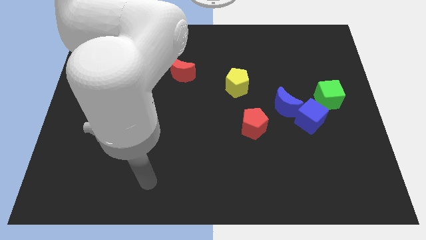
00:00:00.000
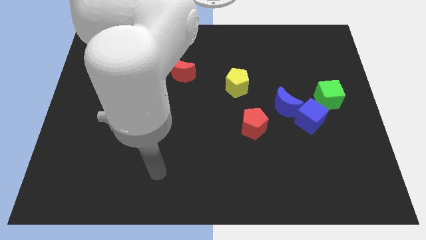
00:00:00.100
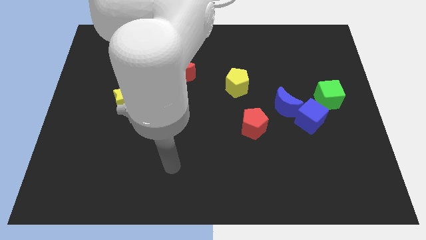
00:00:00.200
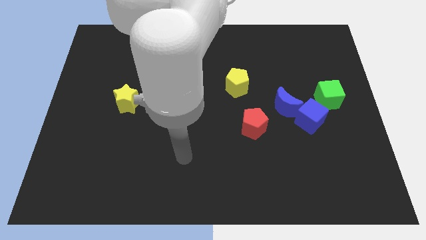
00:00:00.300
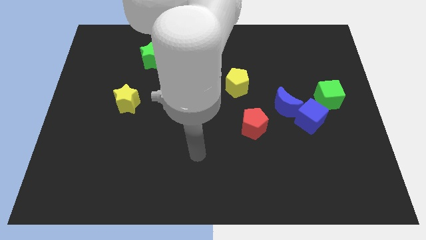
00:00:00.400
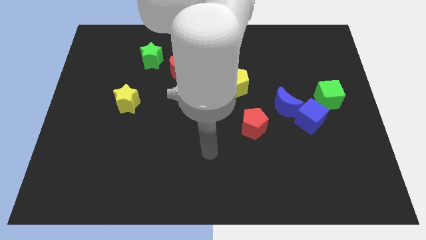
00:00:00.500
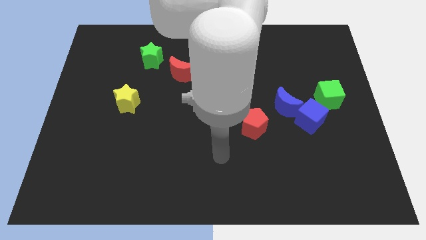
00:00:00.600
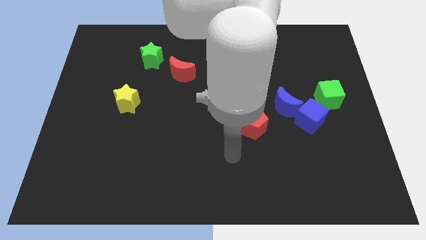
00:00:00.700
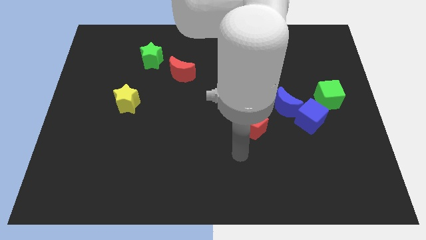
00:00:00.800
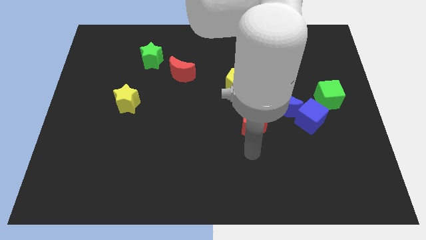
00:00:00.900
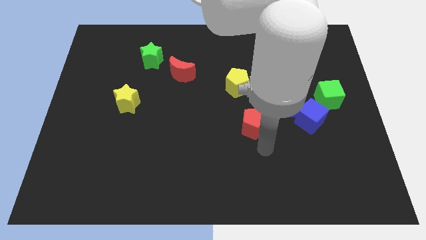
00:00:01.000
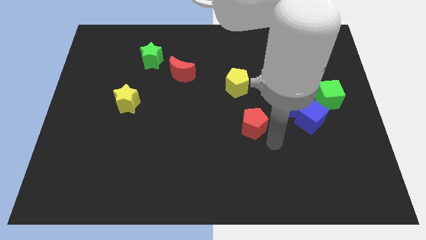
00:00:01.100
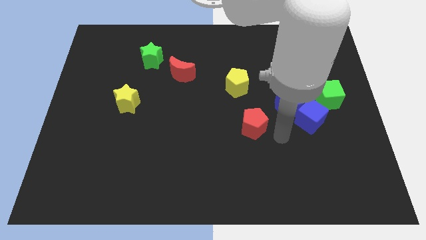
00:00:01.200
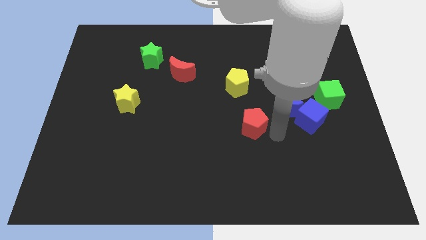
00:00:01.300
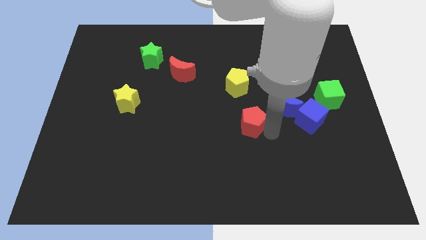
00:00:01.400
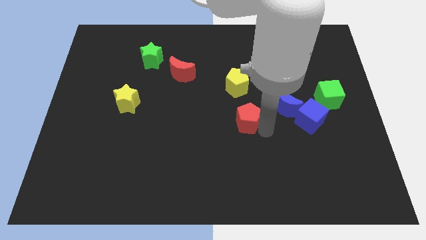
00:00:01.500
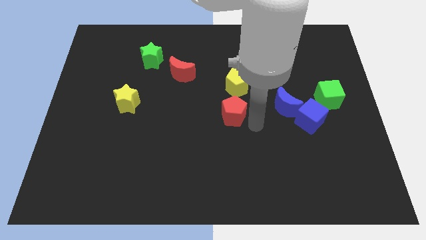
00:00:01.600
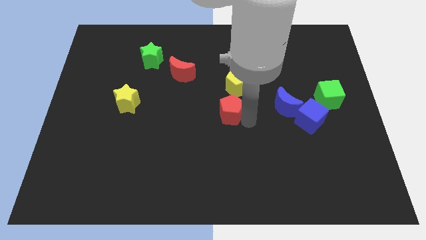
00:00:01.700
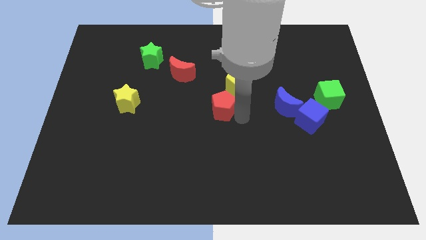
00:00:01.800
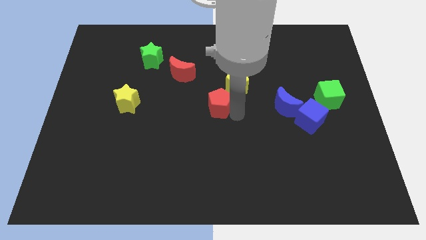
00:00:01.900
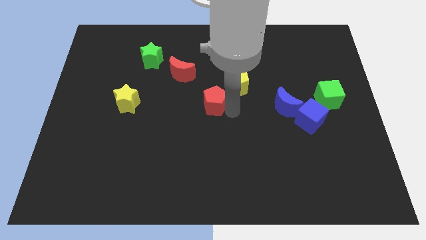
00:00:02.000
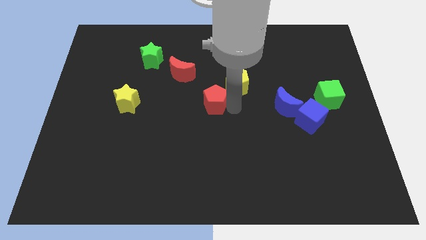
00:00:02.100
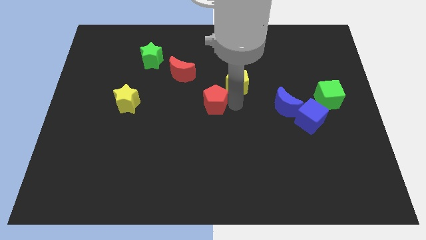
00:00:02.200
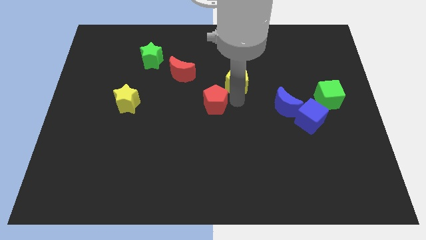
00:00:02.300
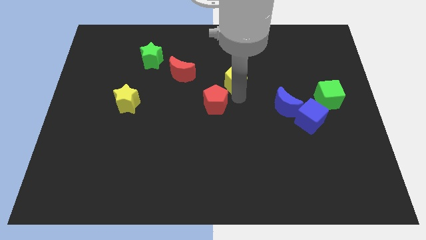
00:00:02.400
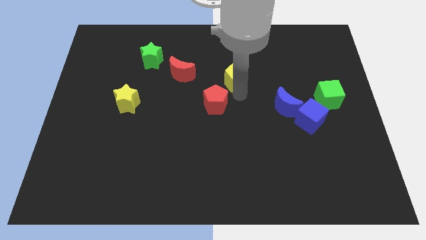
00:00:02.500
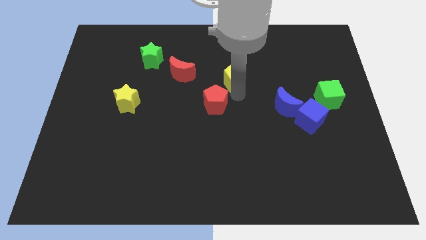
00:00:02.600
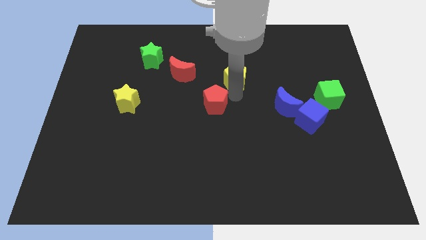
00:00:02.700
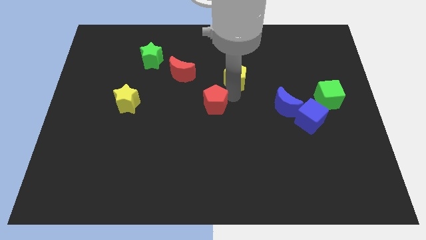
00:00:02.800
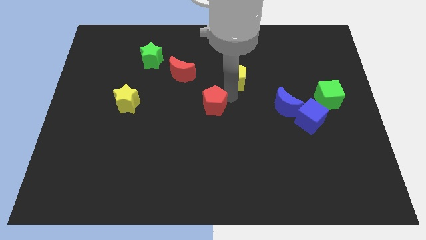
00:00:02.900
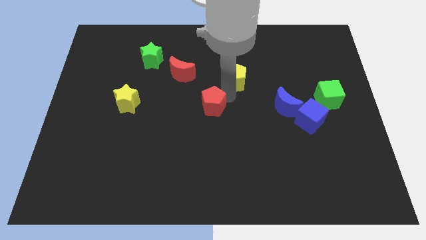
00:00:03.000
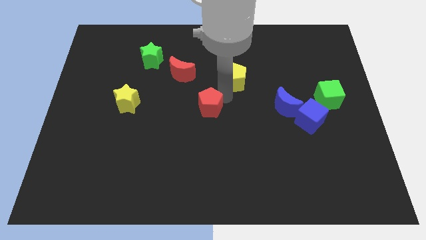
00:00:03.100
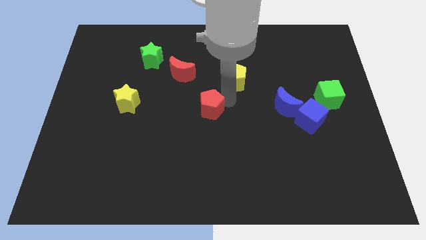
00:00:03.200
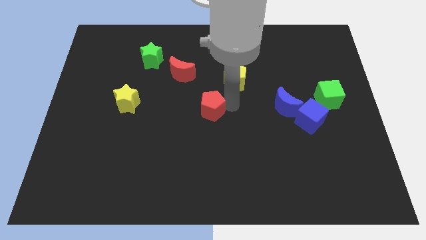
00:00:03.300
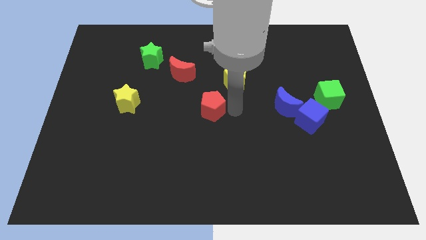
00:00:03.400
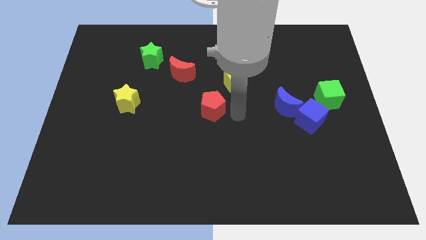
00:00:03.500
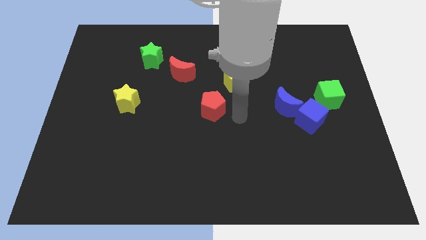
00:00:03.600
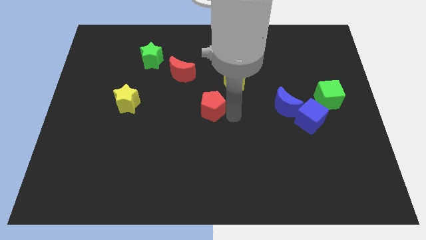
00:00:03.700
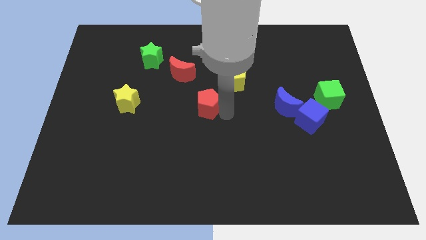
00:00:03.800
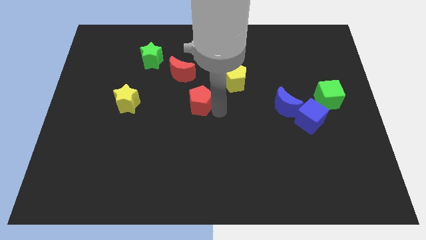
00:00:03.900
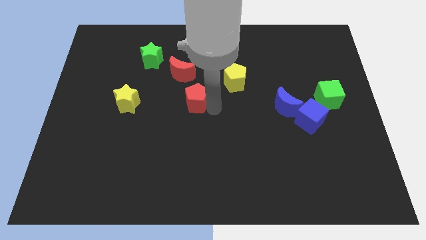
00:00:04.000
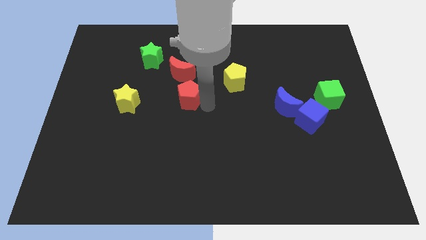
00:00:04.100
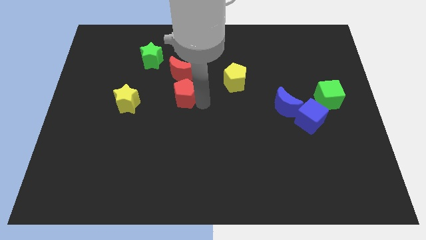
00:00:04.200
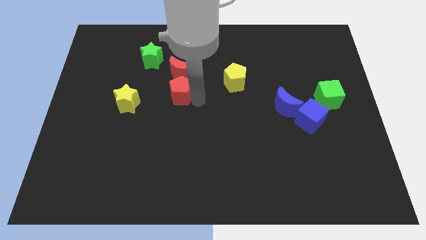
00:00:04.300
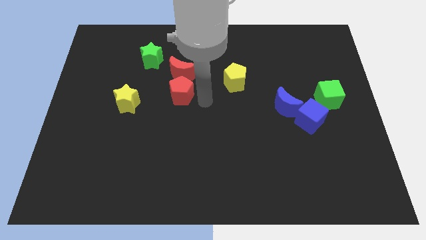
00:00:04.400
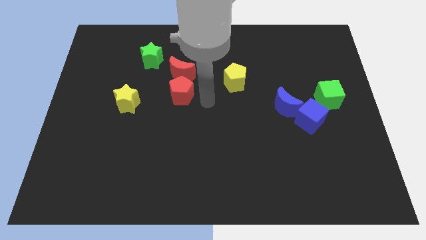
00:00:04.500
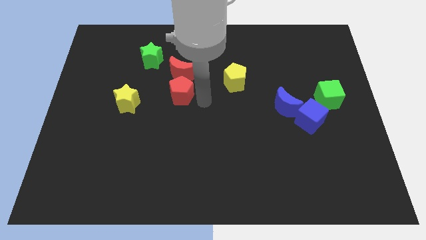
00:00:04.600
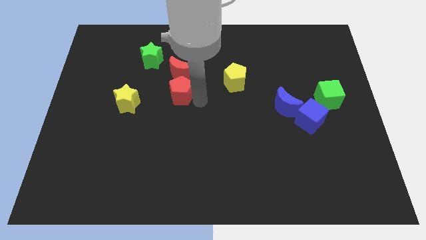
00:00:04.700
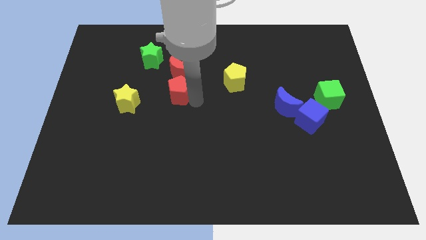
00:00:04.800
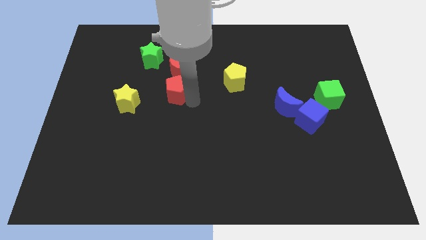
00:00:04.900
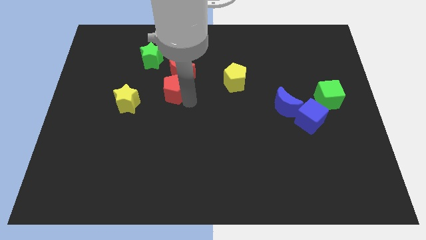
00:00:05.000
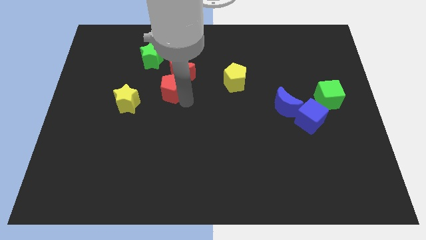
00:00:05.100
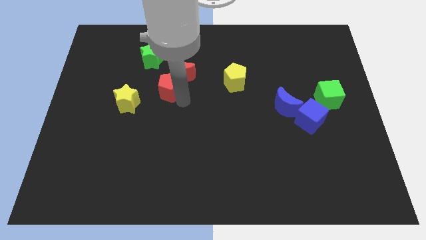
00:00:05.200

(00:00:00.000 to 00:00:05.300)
put the red pentagon to the top right side of the yellow star

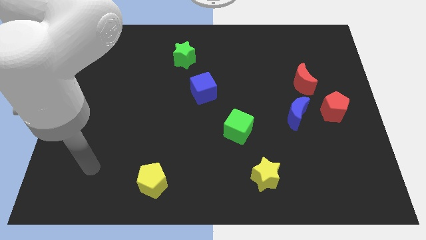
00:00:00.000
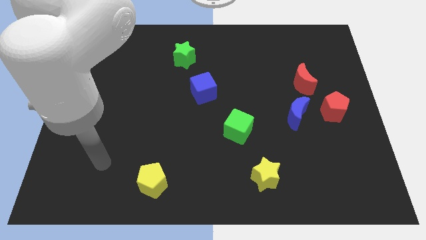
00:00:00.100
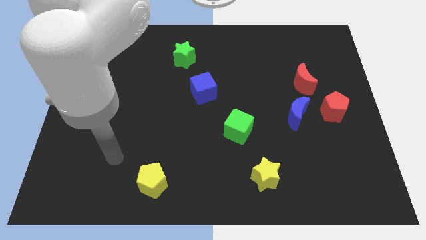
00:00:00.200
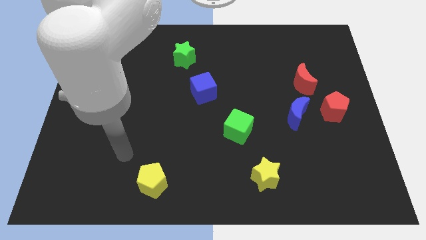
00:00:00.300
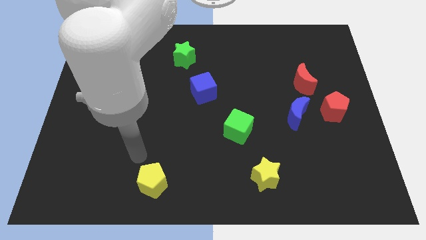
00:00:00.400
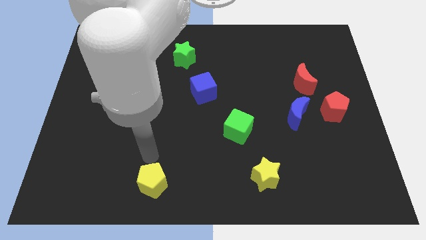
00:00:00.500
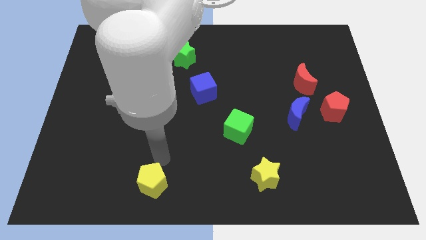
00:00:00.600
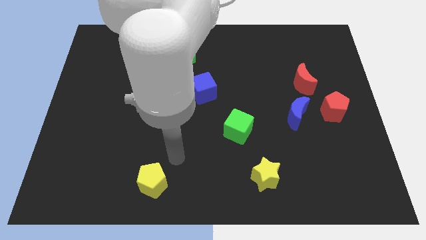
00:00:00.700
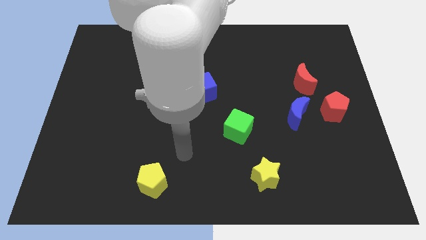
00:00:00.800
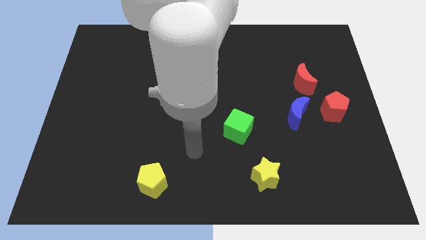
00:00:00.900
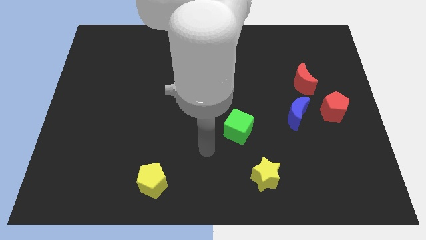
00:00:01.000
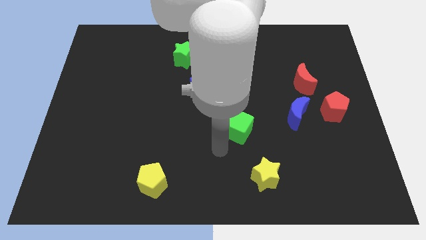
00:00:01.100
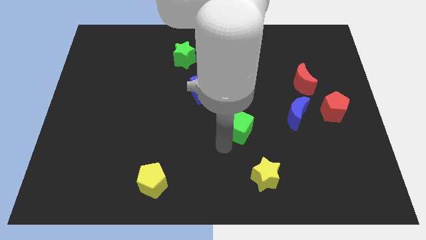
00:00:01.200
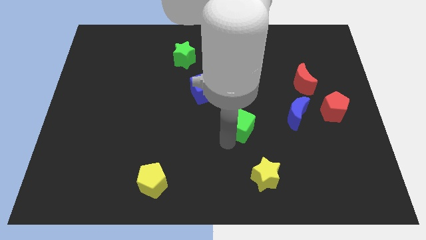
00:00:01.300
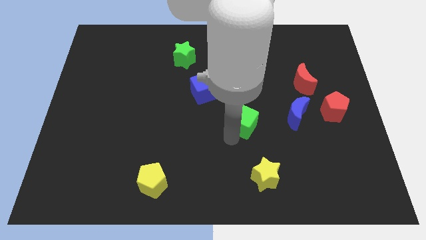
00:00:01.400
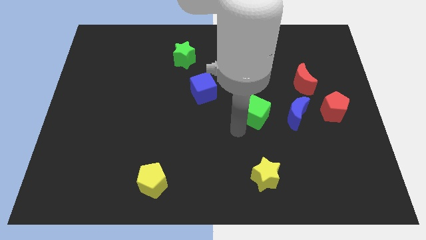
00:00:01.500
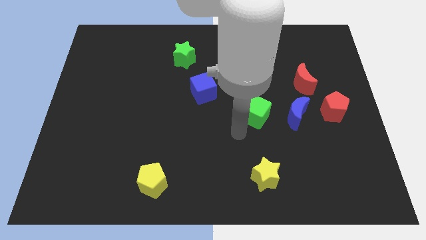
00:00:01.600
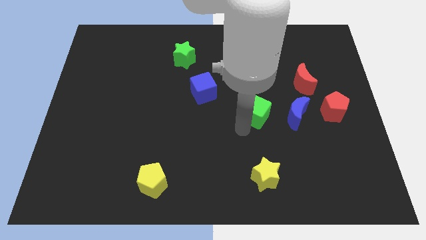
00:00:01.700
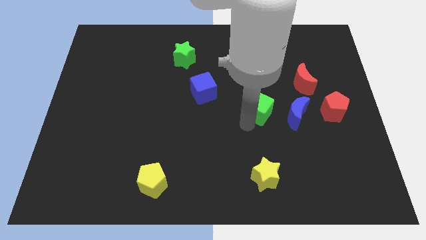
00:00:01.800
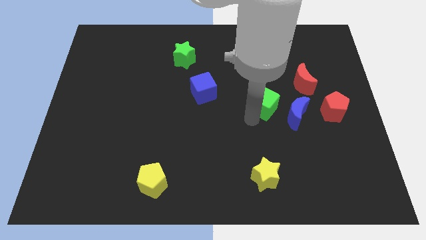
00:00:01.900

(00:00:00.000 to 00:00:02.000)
slide the green cube to the top left of the blue moon
